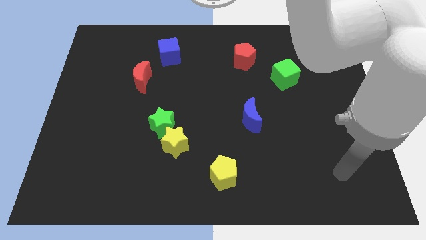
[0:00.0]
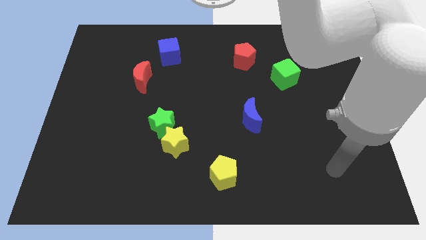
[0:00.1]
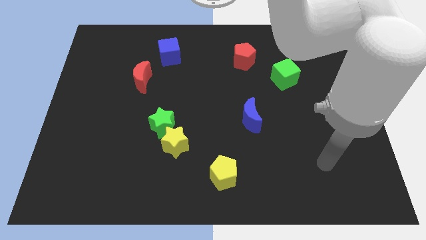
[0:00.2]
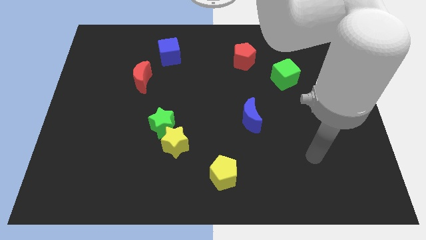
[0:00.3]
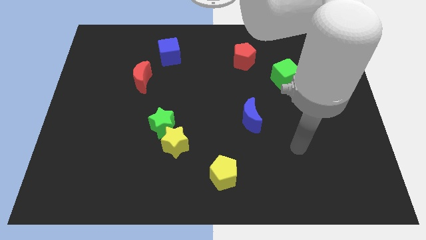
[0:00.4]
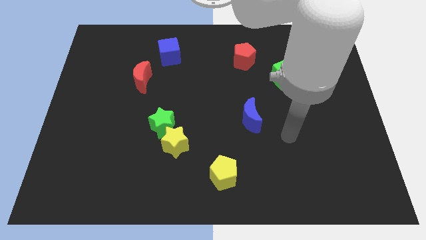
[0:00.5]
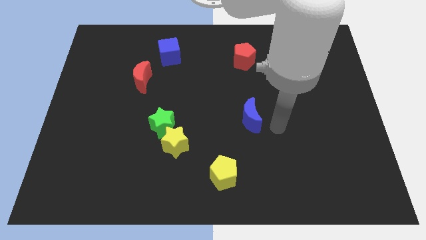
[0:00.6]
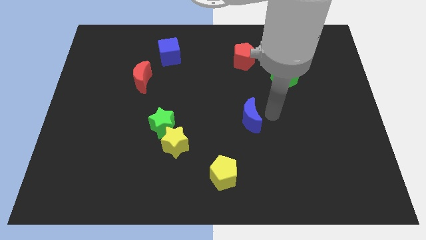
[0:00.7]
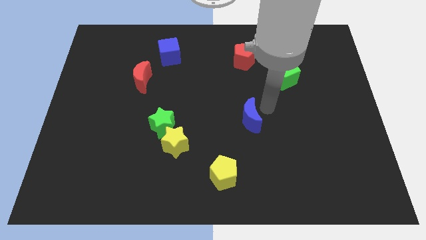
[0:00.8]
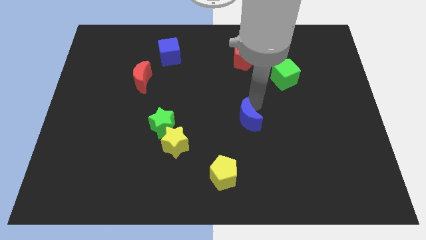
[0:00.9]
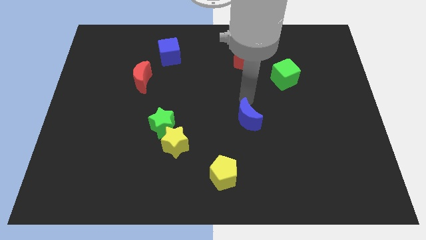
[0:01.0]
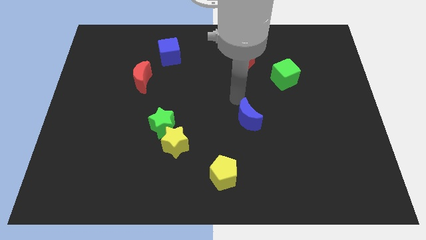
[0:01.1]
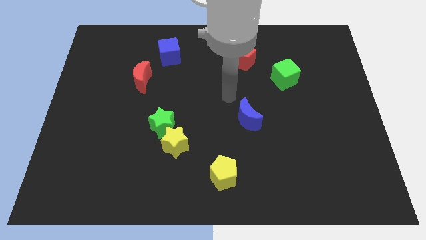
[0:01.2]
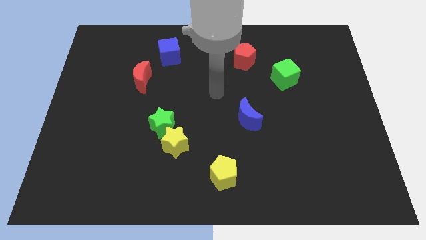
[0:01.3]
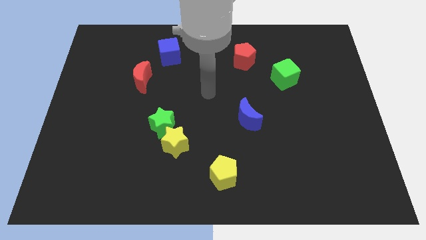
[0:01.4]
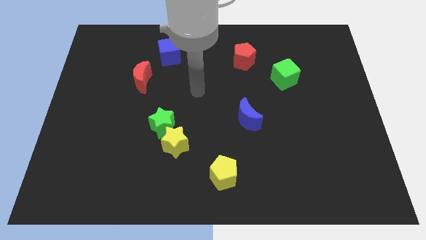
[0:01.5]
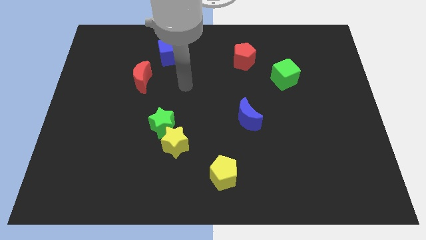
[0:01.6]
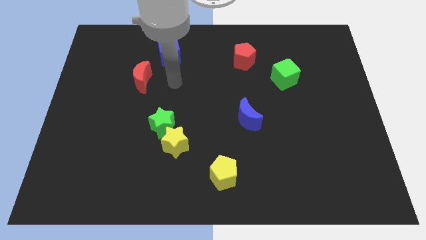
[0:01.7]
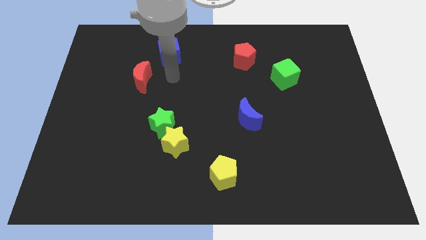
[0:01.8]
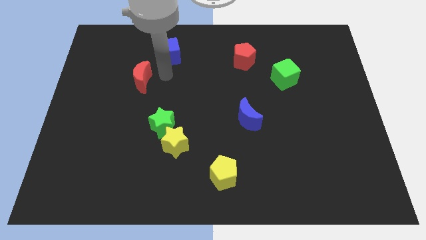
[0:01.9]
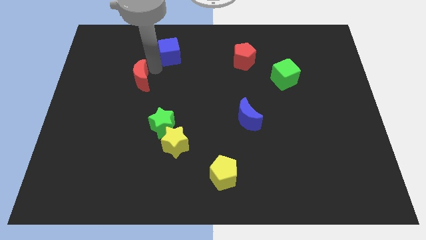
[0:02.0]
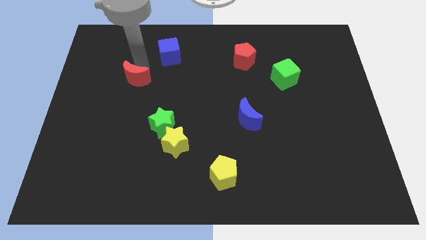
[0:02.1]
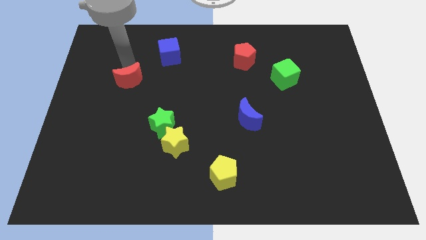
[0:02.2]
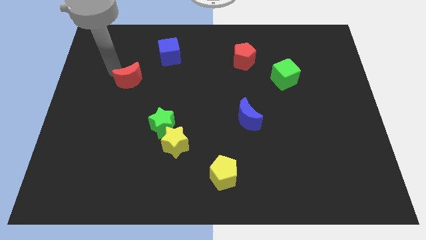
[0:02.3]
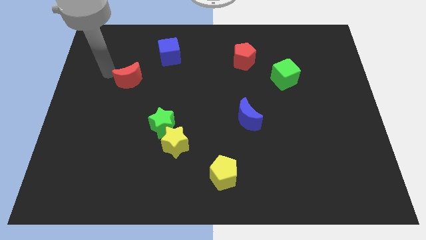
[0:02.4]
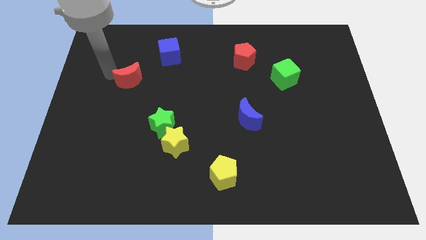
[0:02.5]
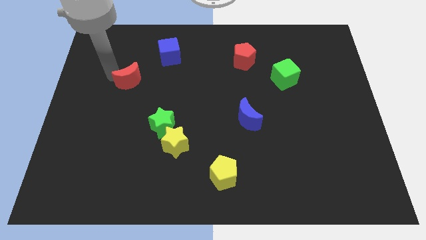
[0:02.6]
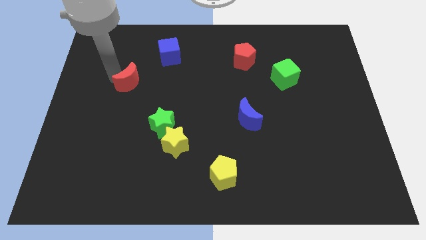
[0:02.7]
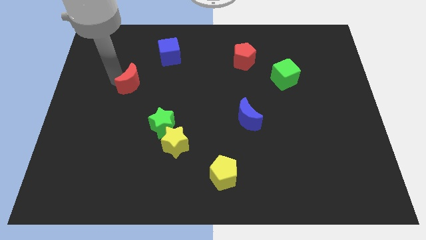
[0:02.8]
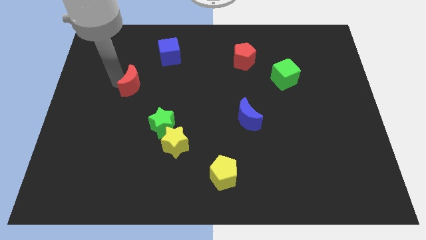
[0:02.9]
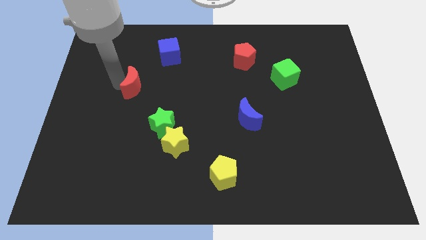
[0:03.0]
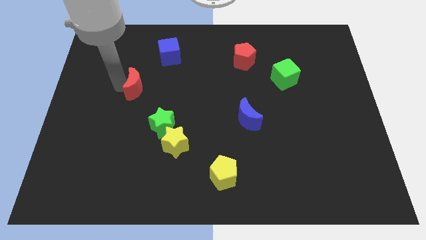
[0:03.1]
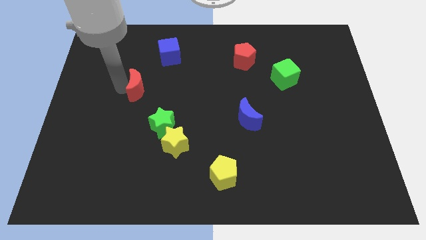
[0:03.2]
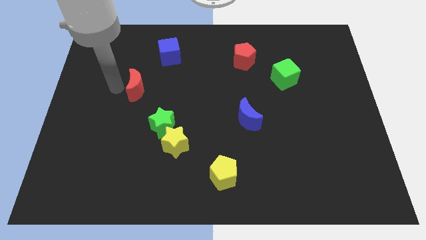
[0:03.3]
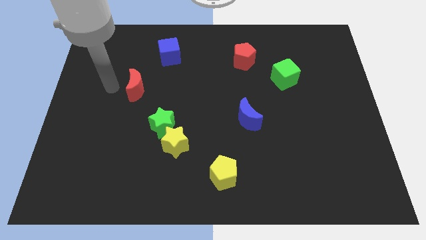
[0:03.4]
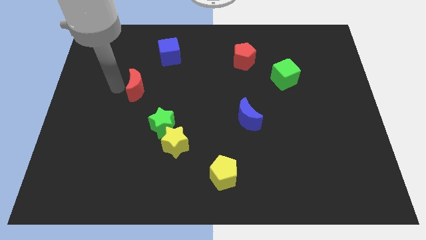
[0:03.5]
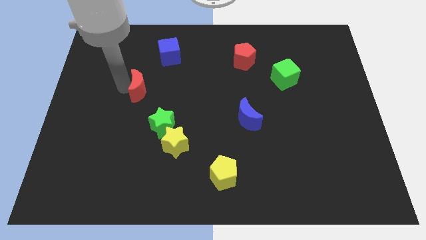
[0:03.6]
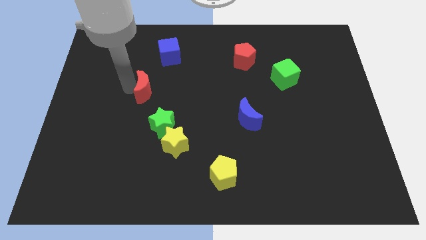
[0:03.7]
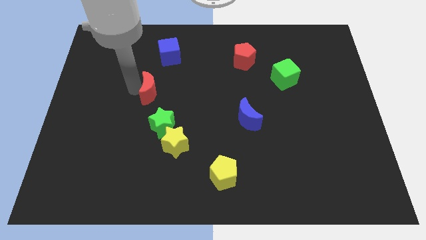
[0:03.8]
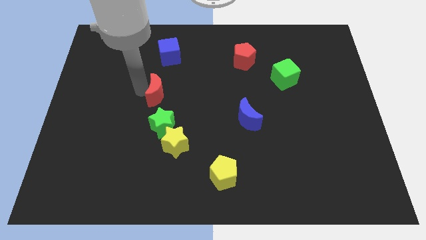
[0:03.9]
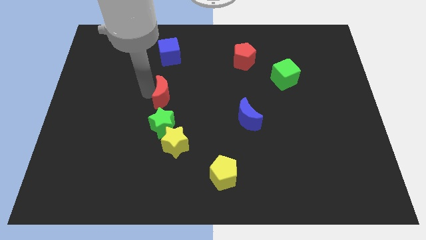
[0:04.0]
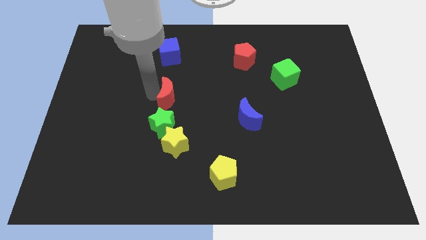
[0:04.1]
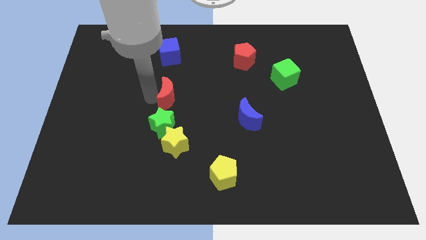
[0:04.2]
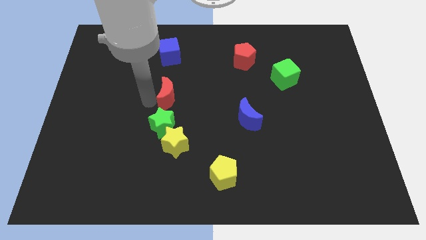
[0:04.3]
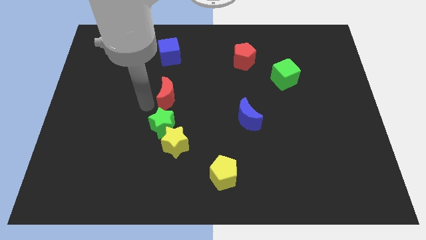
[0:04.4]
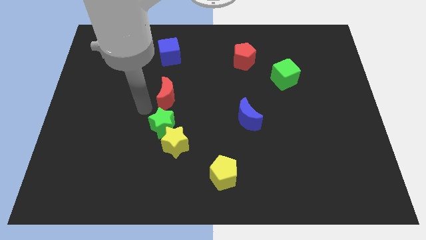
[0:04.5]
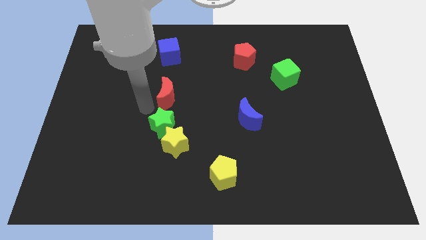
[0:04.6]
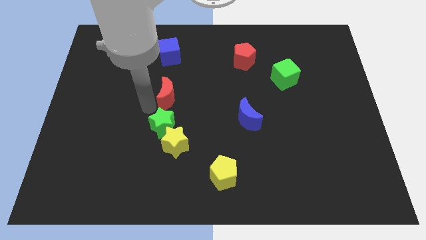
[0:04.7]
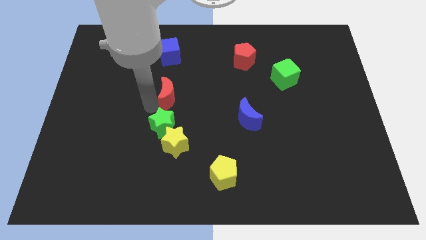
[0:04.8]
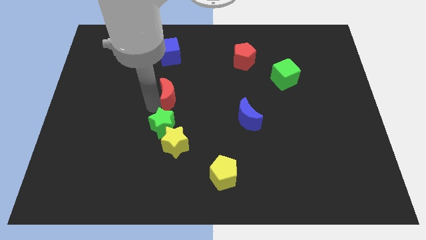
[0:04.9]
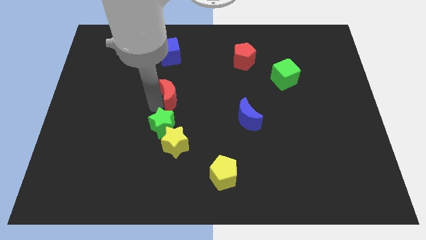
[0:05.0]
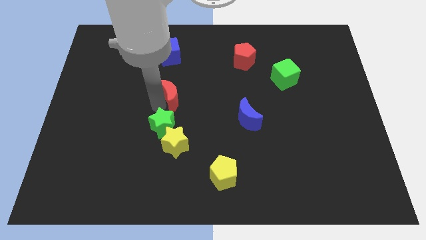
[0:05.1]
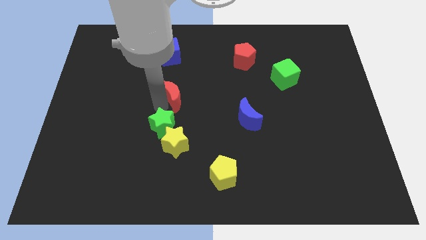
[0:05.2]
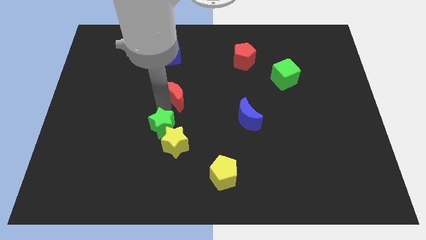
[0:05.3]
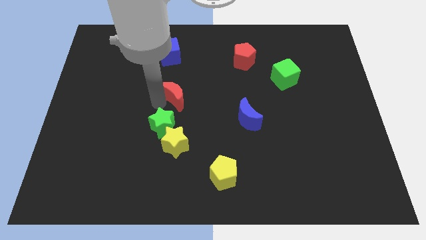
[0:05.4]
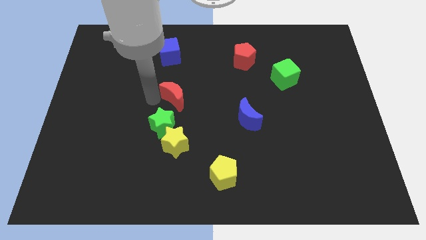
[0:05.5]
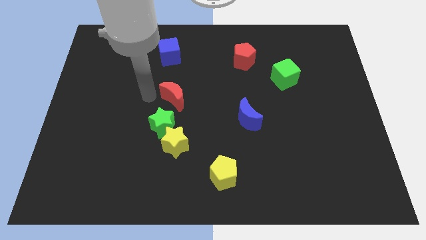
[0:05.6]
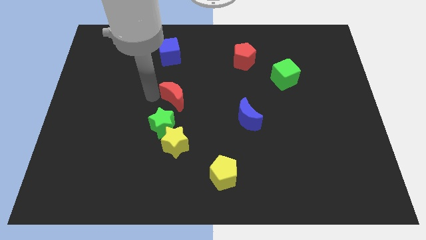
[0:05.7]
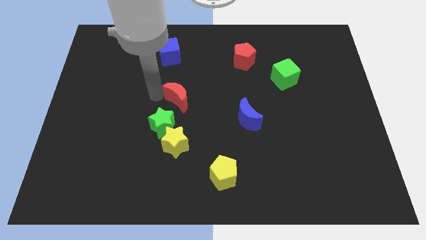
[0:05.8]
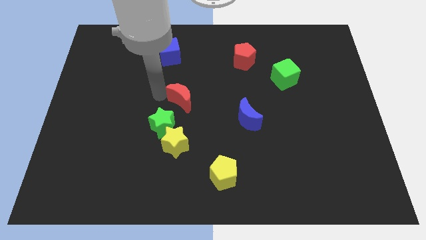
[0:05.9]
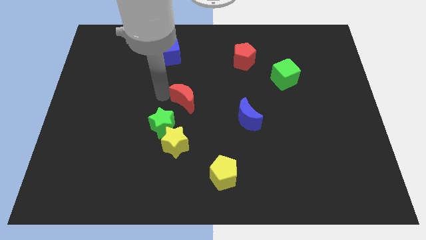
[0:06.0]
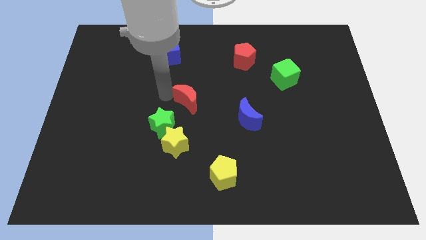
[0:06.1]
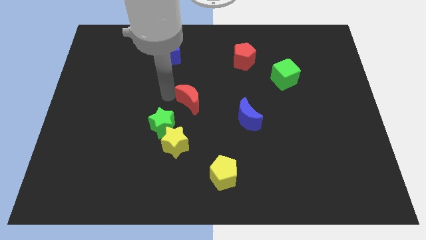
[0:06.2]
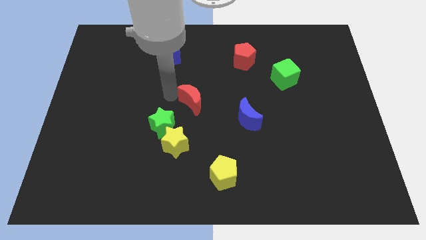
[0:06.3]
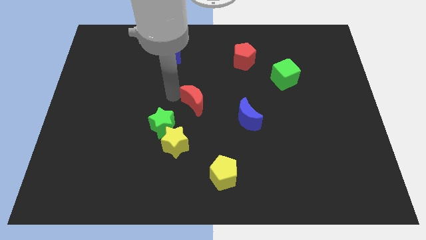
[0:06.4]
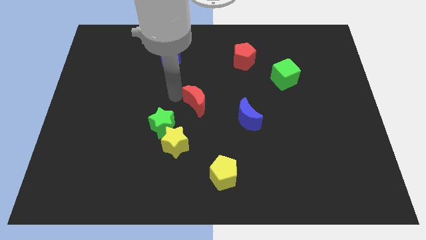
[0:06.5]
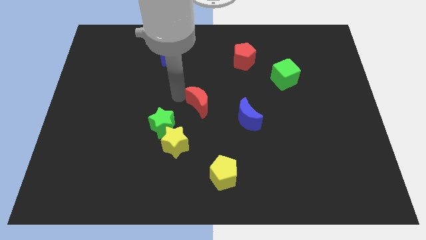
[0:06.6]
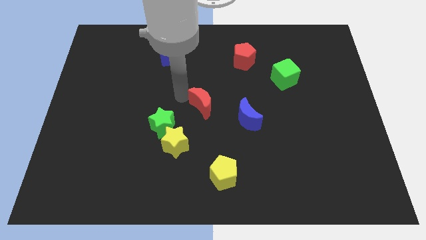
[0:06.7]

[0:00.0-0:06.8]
push the red moon diagonally up and to the left of the blue moon
